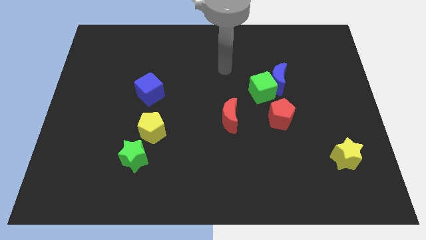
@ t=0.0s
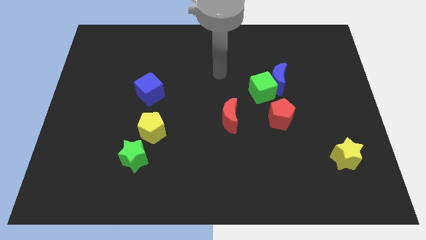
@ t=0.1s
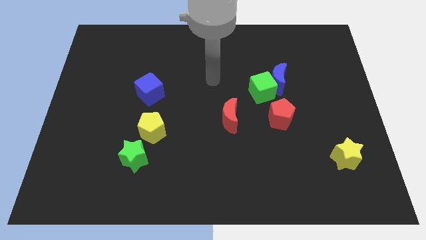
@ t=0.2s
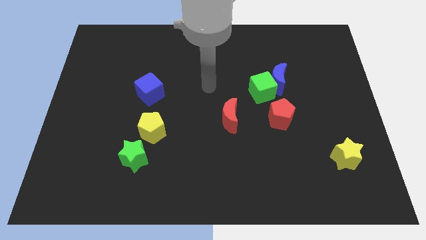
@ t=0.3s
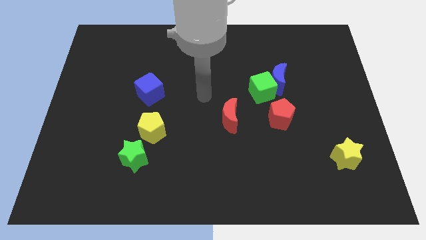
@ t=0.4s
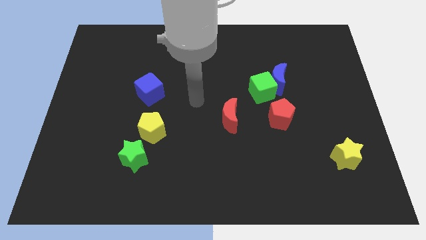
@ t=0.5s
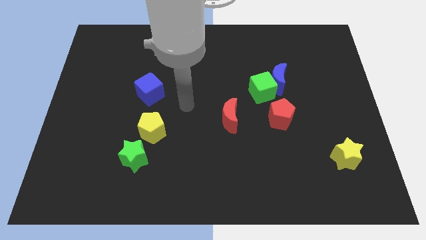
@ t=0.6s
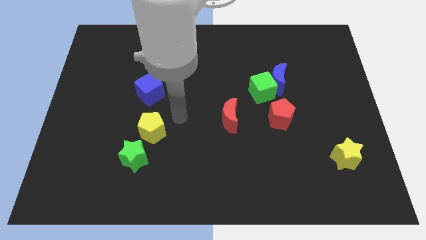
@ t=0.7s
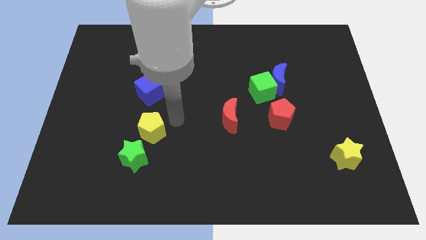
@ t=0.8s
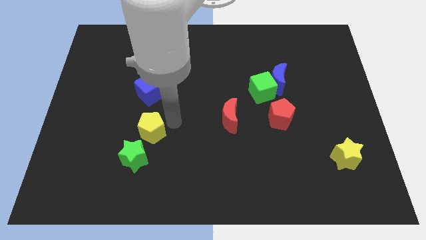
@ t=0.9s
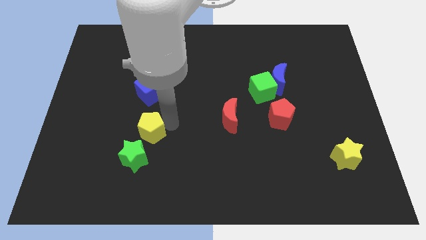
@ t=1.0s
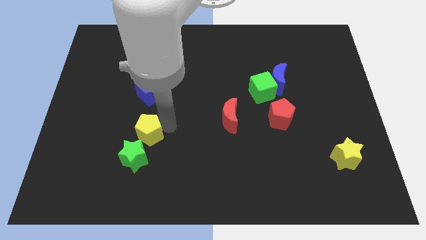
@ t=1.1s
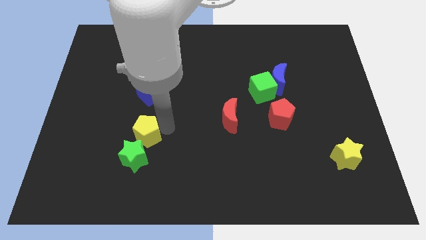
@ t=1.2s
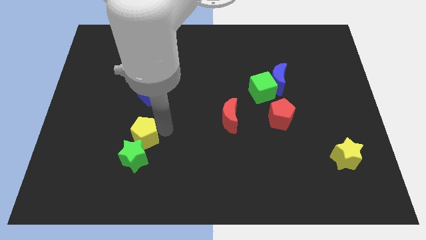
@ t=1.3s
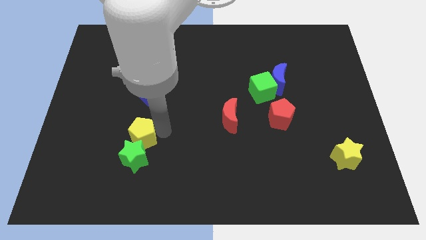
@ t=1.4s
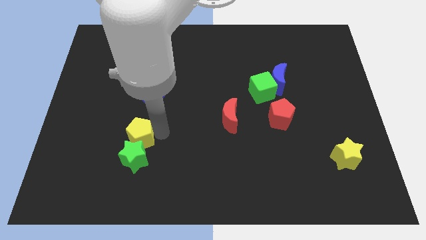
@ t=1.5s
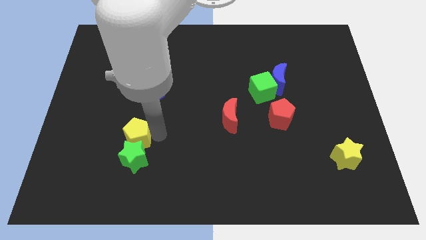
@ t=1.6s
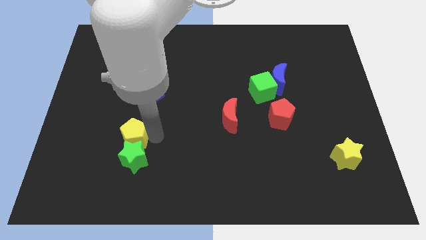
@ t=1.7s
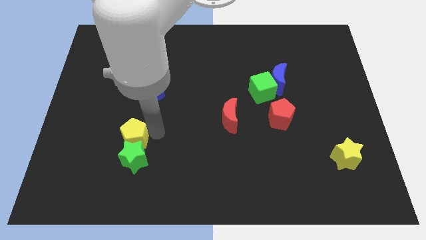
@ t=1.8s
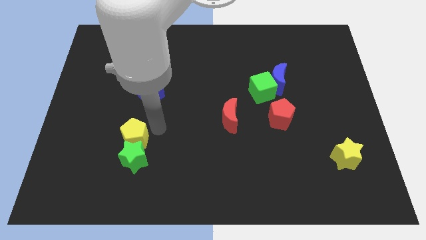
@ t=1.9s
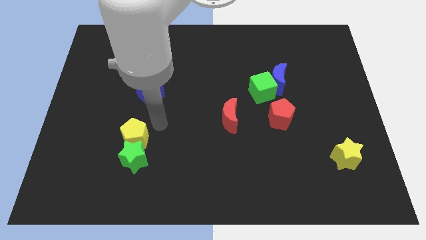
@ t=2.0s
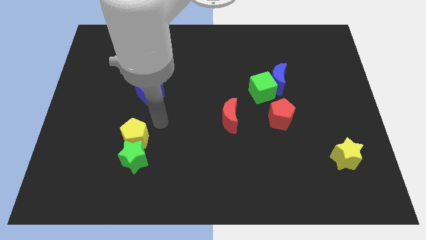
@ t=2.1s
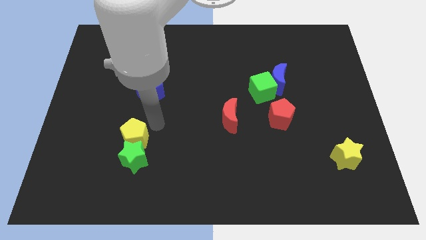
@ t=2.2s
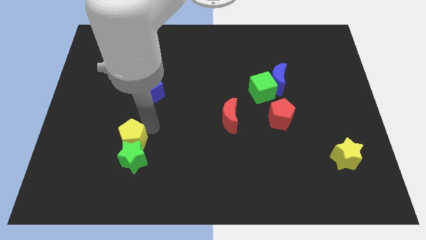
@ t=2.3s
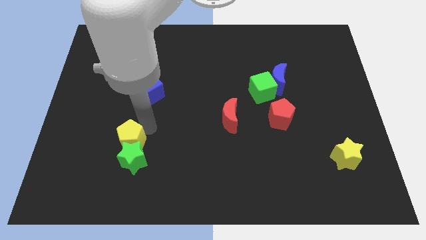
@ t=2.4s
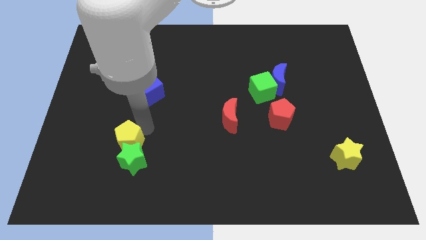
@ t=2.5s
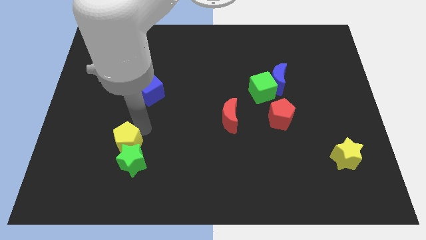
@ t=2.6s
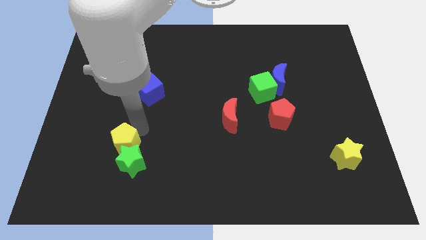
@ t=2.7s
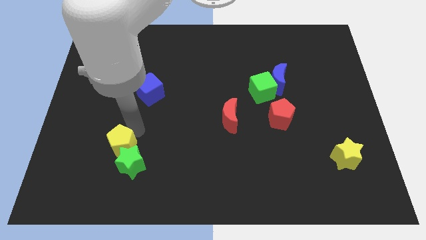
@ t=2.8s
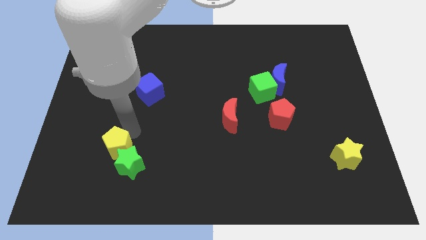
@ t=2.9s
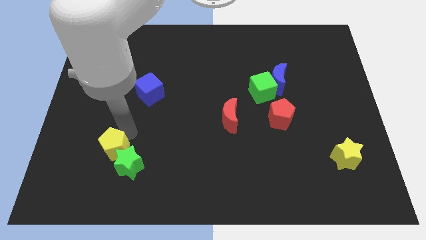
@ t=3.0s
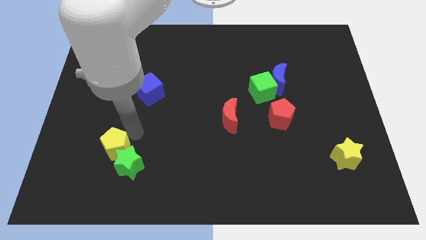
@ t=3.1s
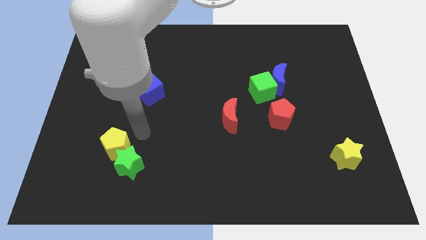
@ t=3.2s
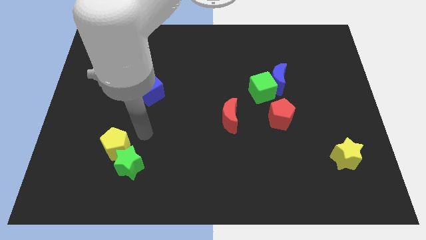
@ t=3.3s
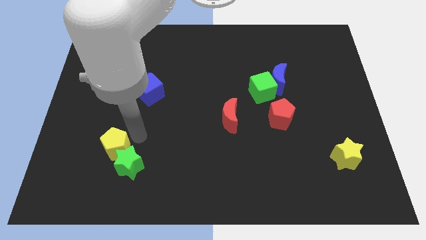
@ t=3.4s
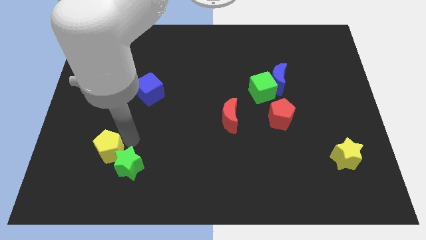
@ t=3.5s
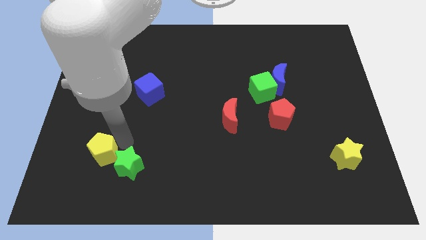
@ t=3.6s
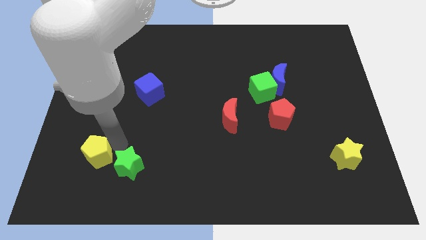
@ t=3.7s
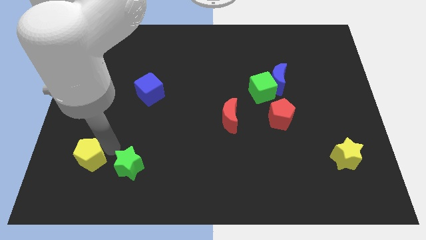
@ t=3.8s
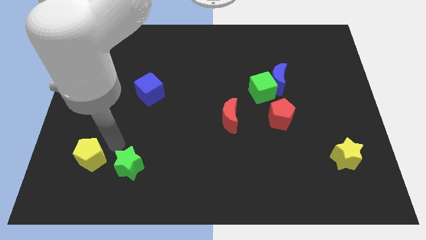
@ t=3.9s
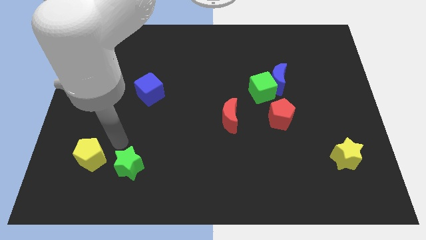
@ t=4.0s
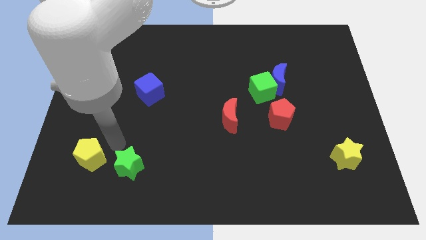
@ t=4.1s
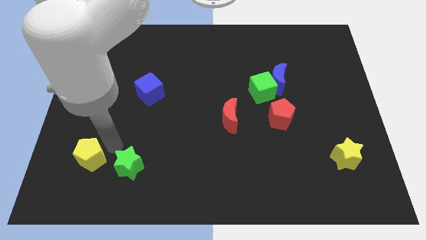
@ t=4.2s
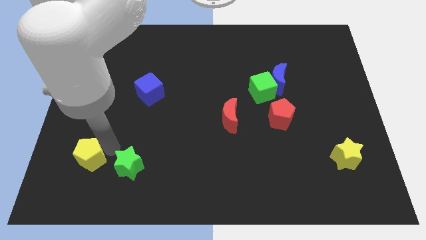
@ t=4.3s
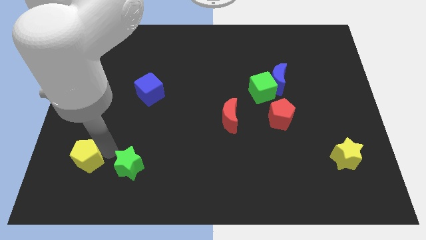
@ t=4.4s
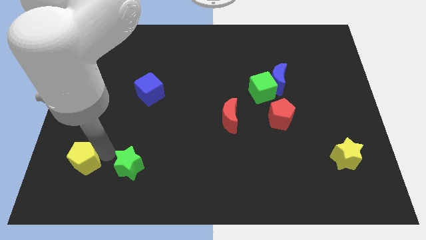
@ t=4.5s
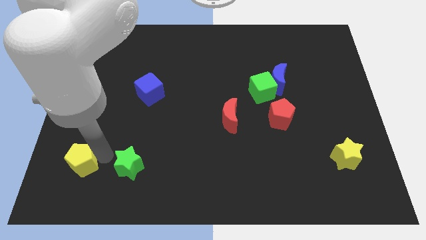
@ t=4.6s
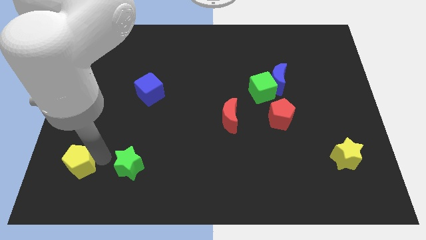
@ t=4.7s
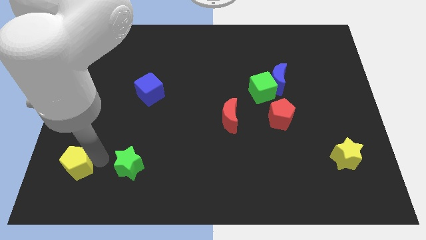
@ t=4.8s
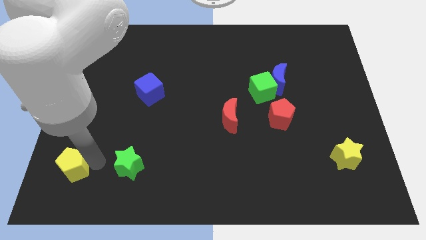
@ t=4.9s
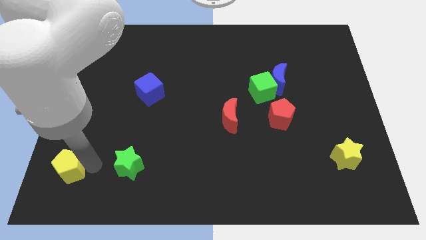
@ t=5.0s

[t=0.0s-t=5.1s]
move the yellow pentagon to the bottom left

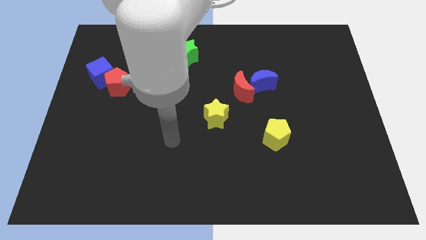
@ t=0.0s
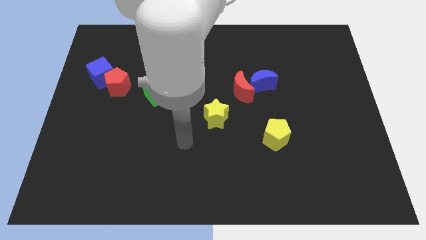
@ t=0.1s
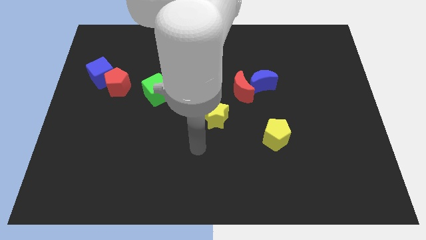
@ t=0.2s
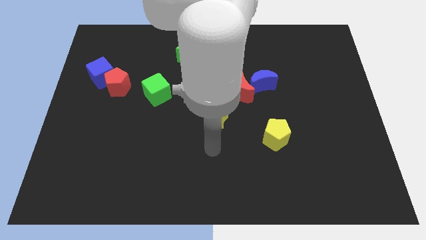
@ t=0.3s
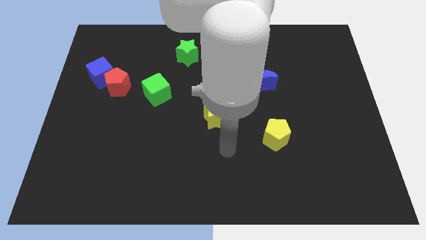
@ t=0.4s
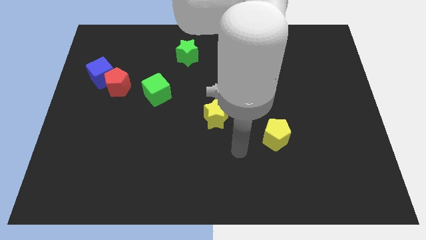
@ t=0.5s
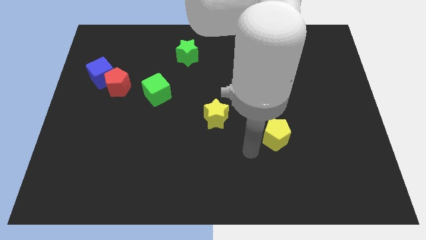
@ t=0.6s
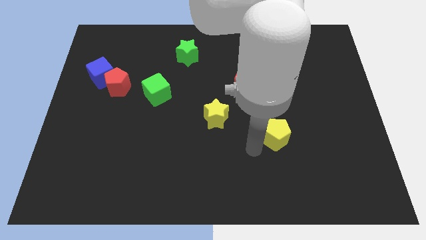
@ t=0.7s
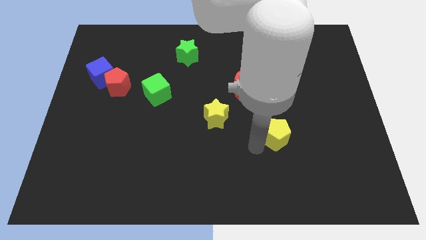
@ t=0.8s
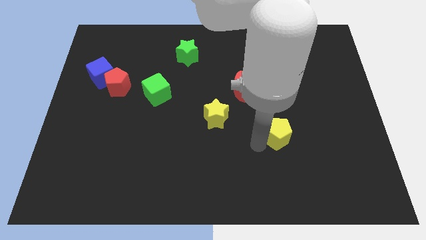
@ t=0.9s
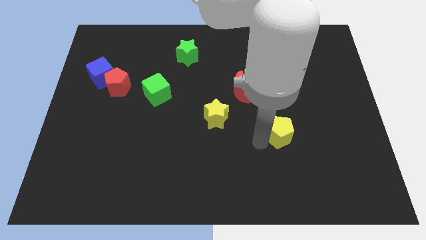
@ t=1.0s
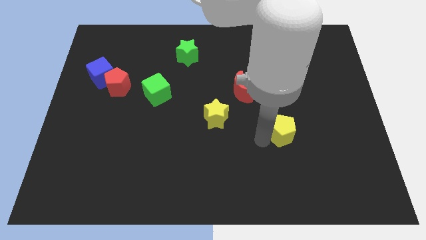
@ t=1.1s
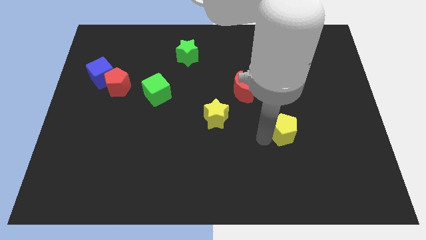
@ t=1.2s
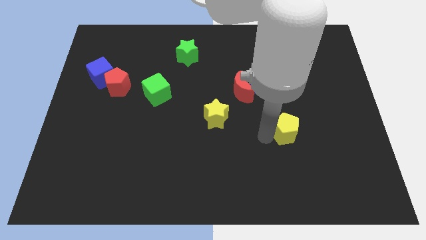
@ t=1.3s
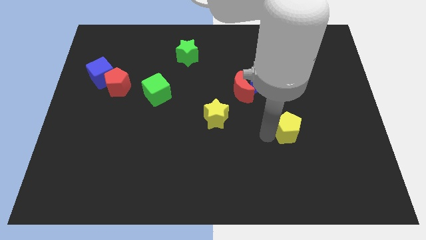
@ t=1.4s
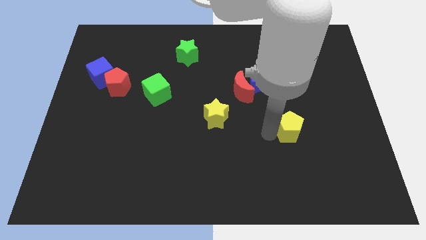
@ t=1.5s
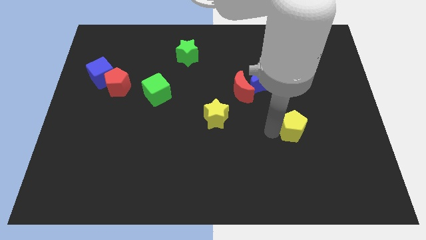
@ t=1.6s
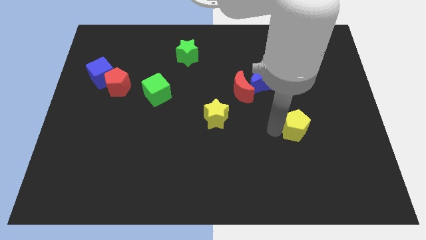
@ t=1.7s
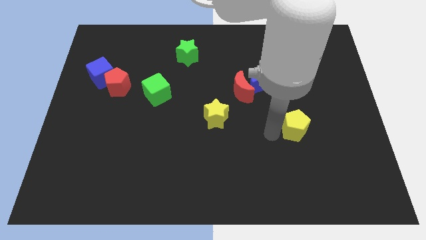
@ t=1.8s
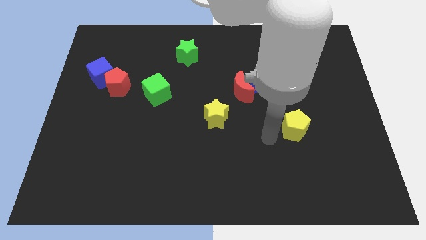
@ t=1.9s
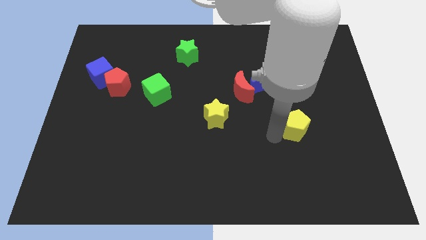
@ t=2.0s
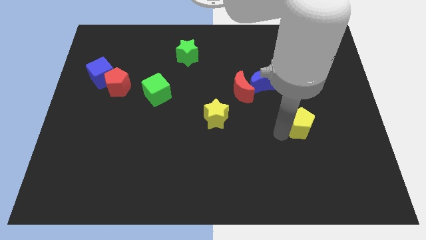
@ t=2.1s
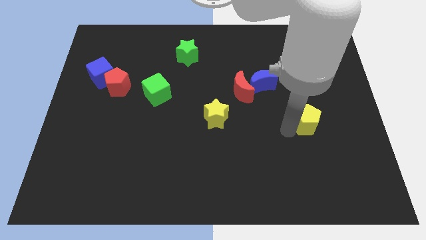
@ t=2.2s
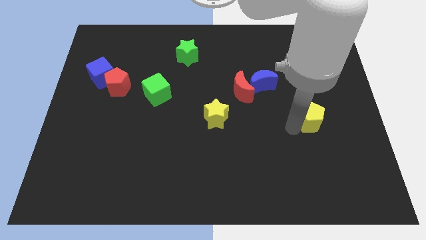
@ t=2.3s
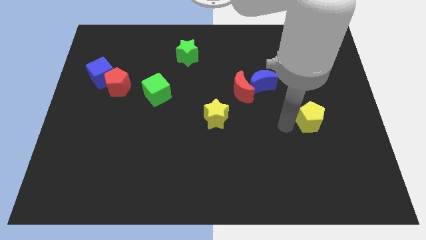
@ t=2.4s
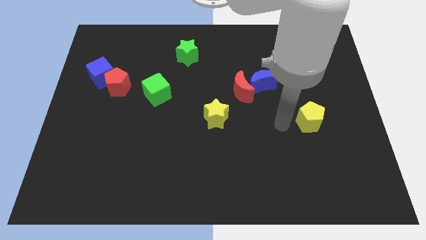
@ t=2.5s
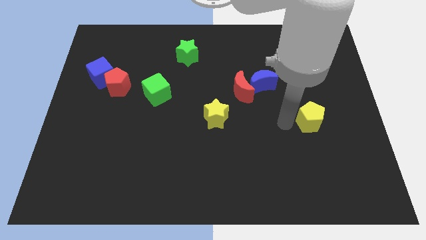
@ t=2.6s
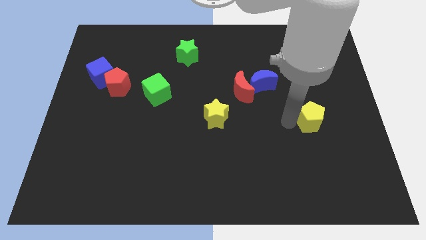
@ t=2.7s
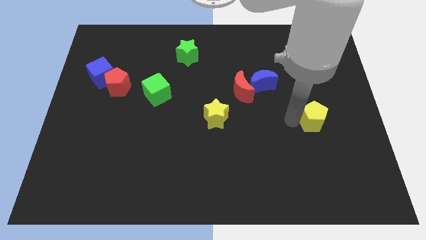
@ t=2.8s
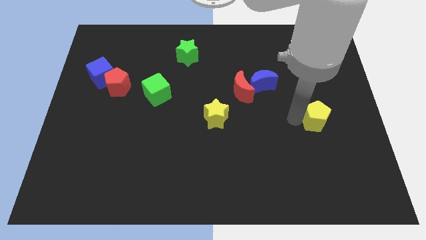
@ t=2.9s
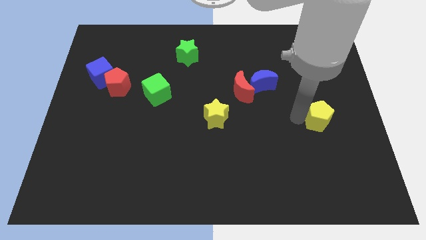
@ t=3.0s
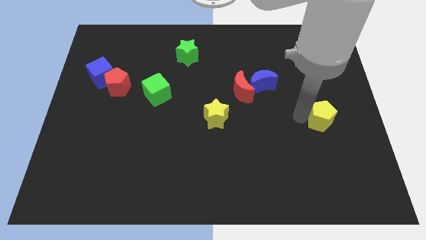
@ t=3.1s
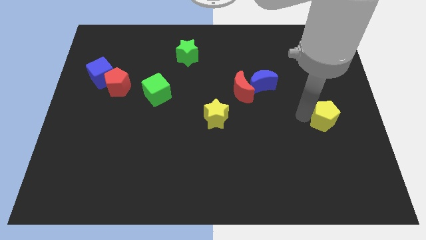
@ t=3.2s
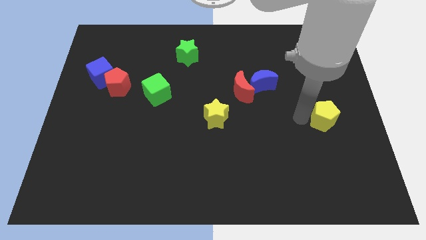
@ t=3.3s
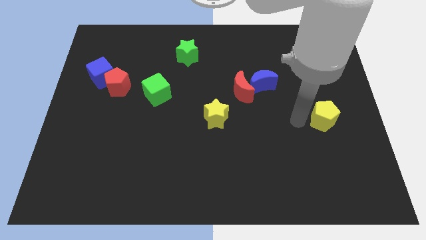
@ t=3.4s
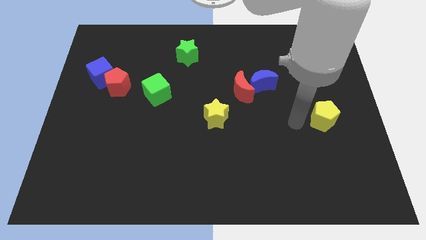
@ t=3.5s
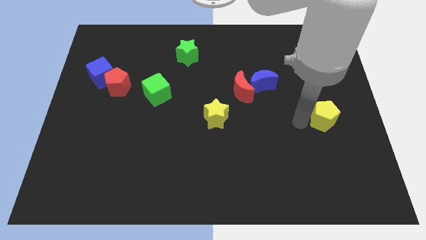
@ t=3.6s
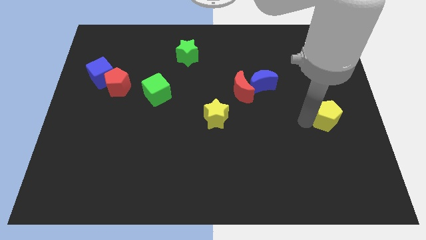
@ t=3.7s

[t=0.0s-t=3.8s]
slide the yellow pentagon to the right side
